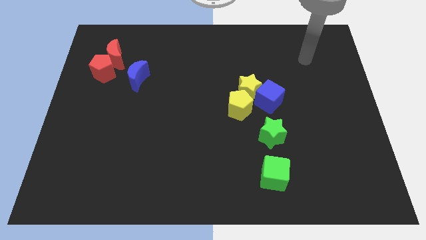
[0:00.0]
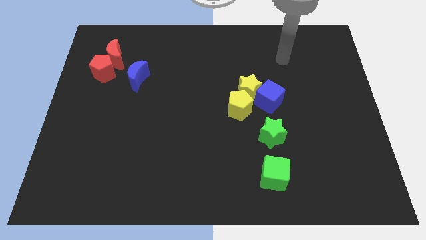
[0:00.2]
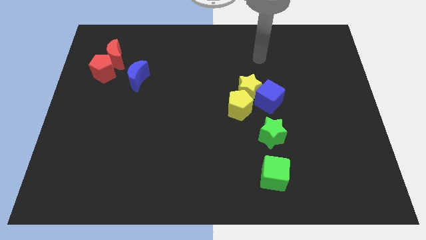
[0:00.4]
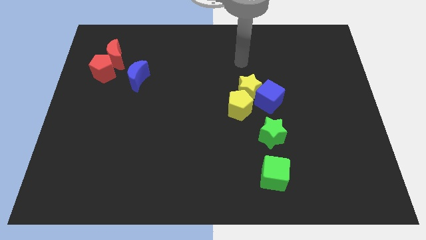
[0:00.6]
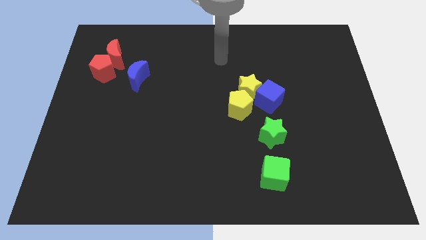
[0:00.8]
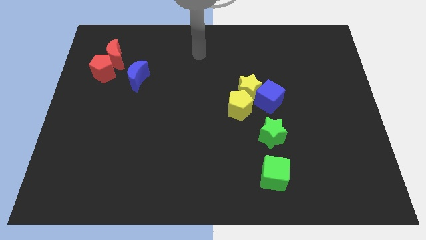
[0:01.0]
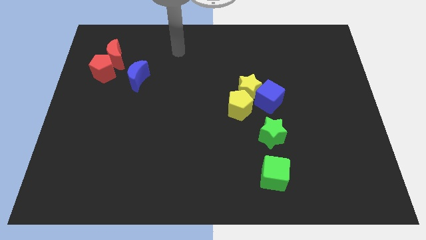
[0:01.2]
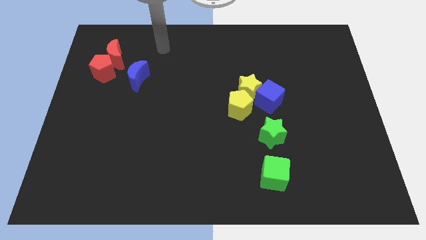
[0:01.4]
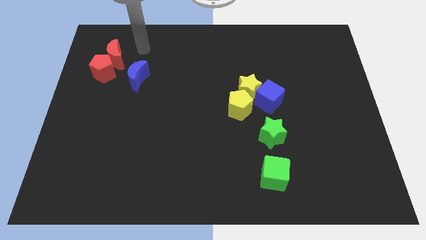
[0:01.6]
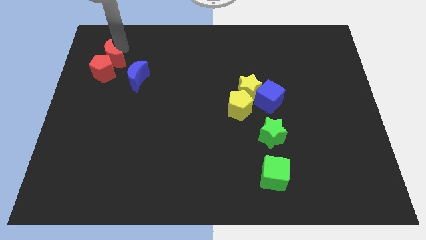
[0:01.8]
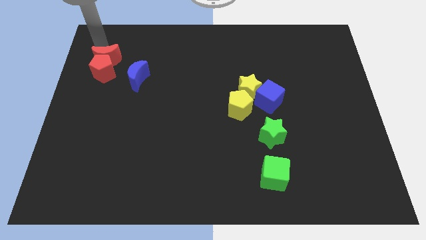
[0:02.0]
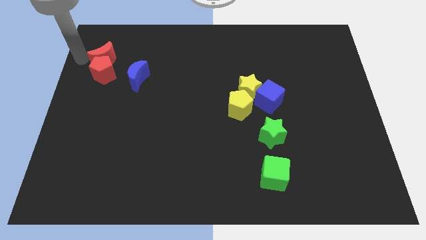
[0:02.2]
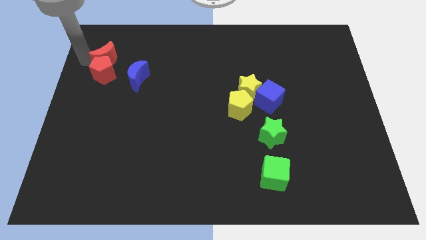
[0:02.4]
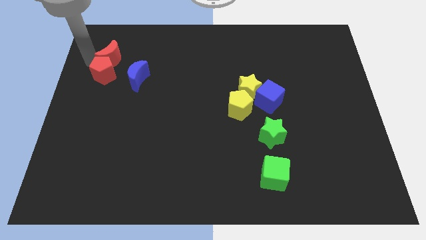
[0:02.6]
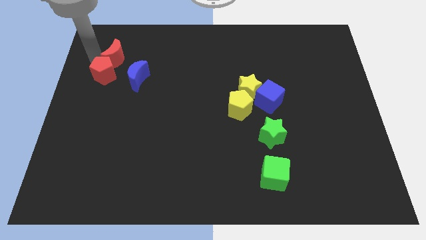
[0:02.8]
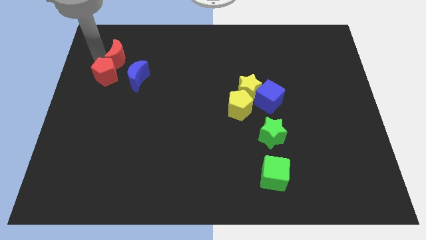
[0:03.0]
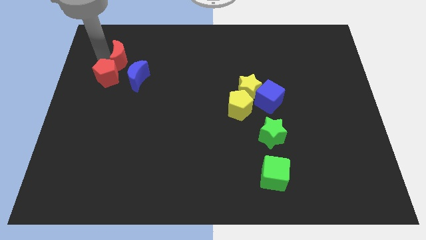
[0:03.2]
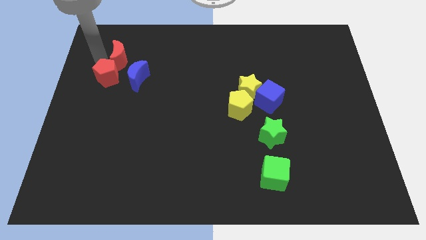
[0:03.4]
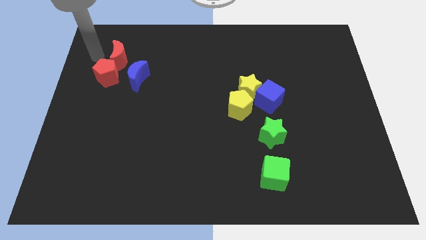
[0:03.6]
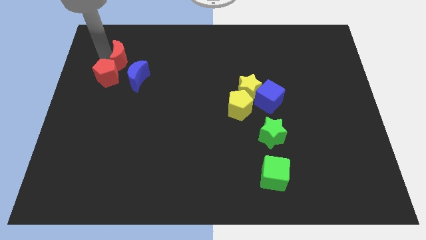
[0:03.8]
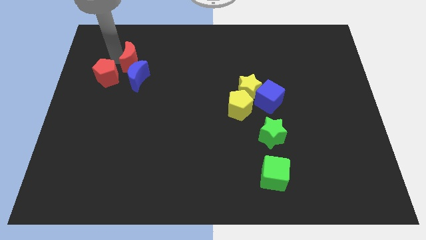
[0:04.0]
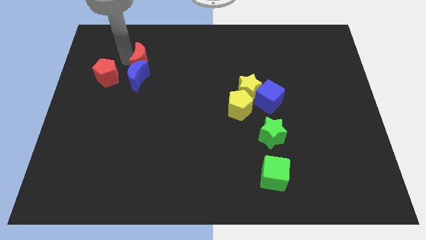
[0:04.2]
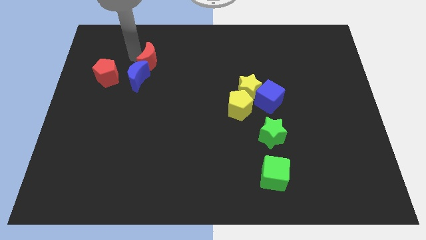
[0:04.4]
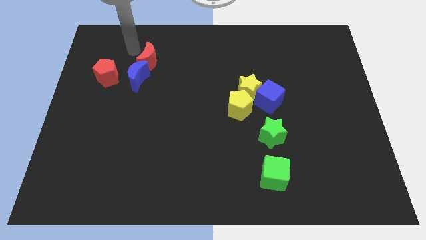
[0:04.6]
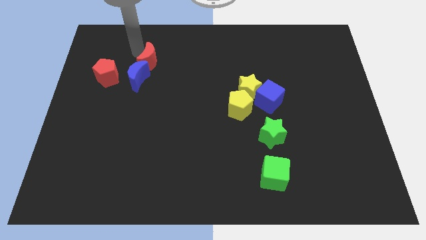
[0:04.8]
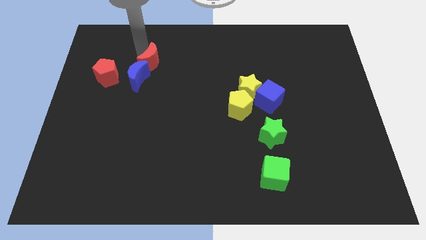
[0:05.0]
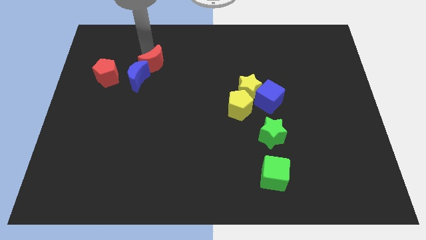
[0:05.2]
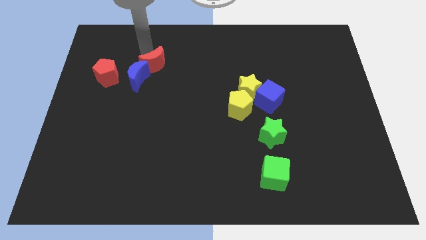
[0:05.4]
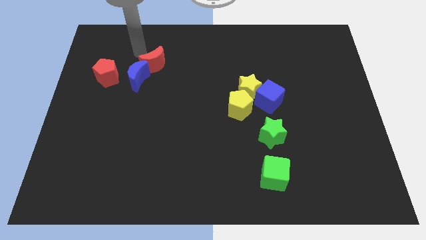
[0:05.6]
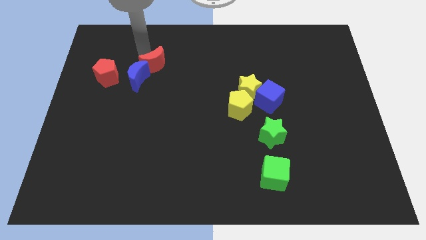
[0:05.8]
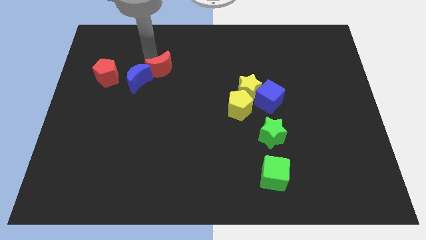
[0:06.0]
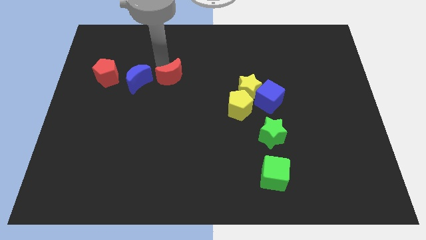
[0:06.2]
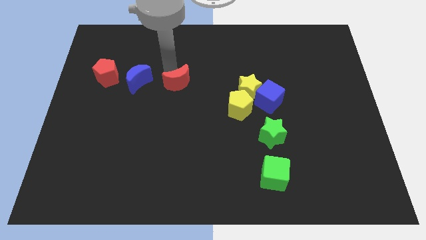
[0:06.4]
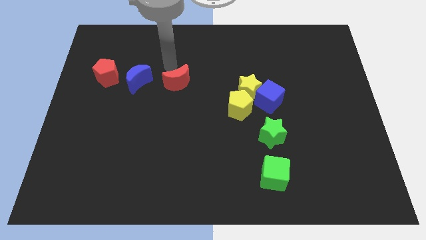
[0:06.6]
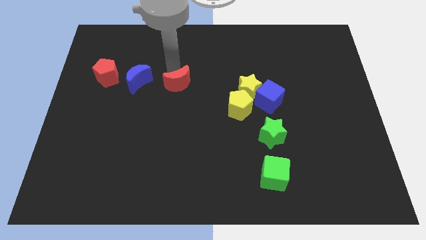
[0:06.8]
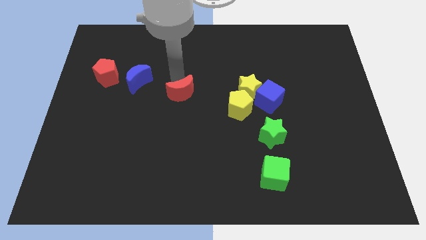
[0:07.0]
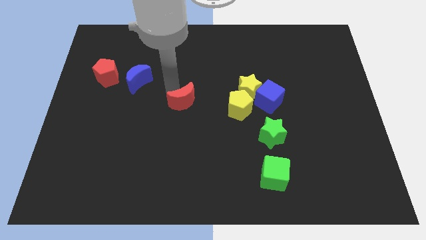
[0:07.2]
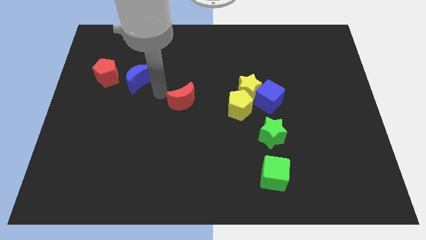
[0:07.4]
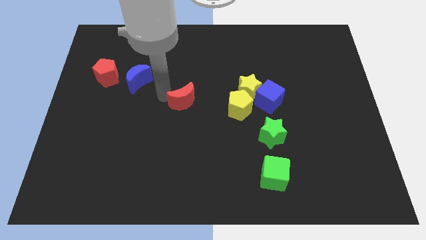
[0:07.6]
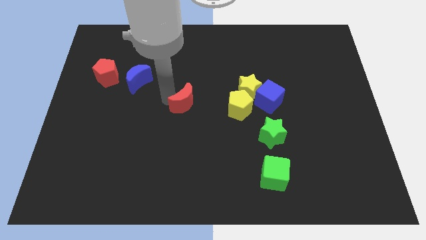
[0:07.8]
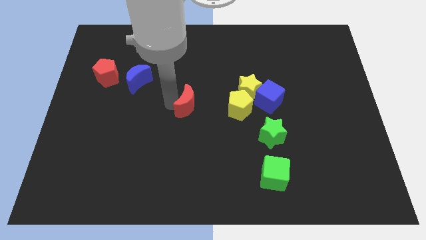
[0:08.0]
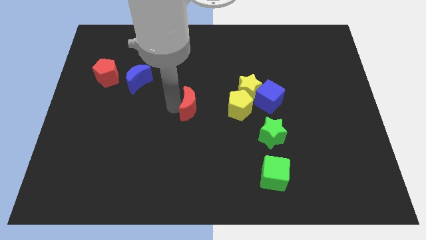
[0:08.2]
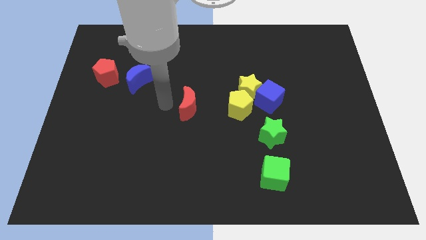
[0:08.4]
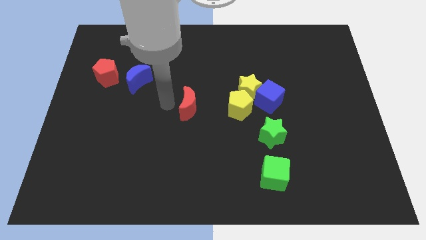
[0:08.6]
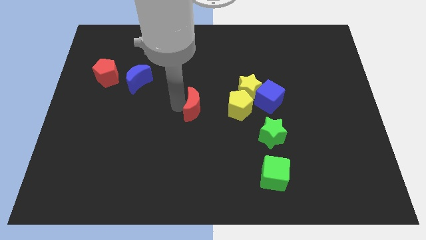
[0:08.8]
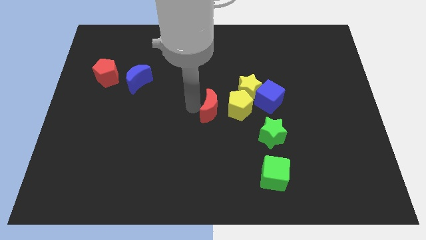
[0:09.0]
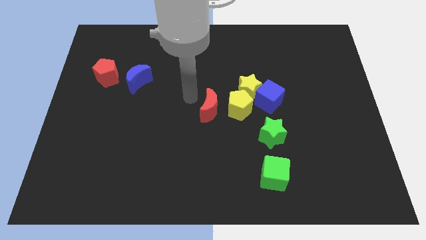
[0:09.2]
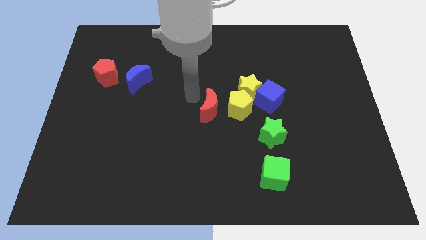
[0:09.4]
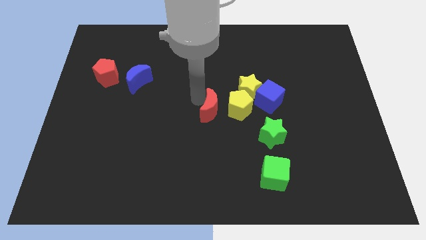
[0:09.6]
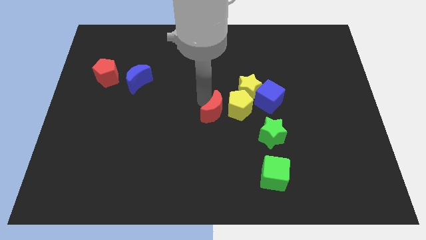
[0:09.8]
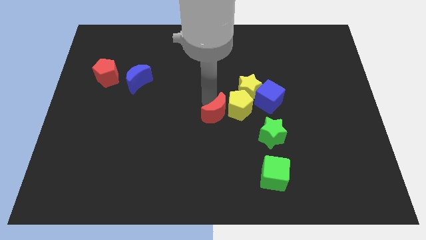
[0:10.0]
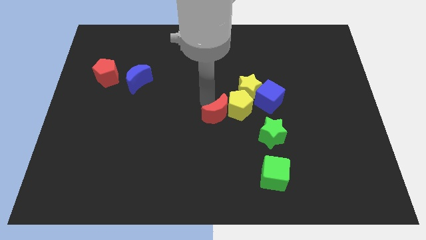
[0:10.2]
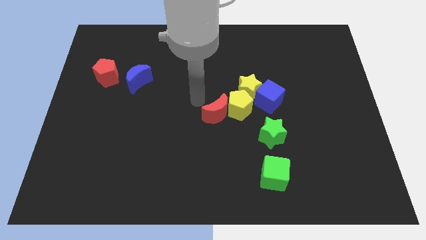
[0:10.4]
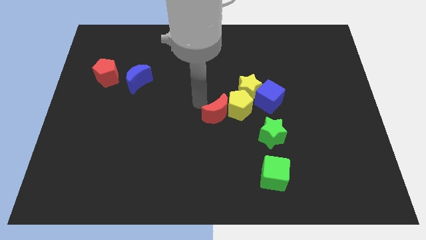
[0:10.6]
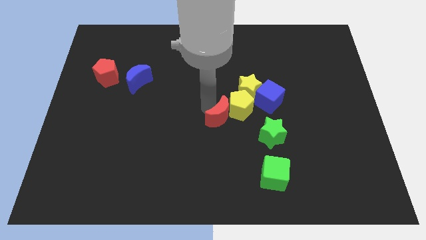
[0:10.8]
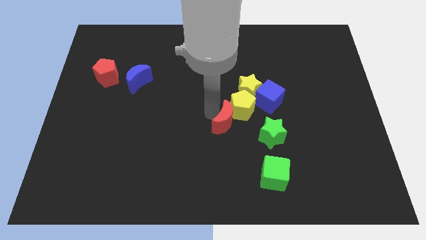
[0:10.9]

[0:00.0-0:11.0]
slide the red moon to the bottom left side of the blue cube

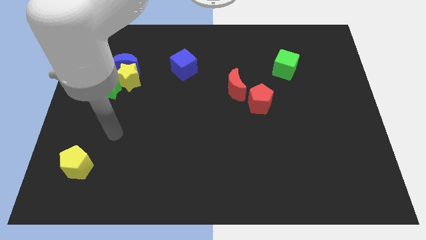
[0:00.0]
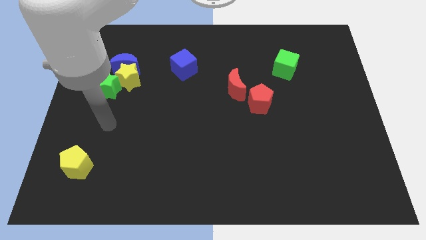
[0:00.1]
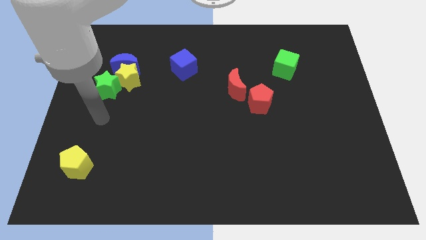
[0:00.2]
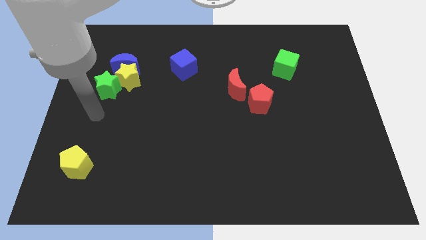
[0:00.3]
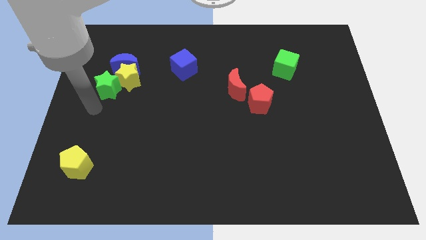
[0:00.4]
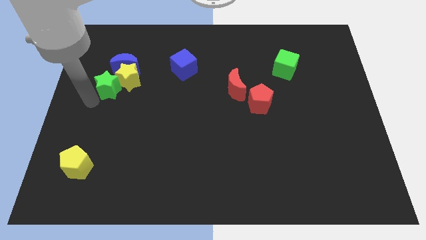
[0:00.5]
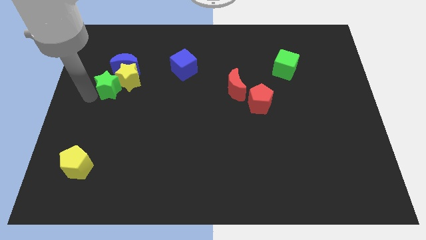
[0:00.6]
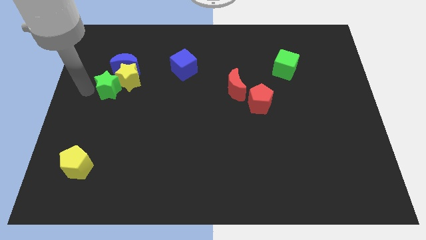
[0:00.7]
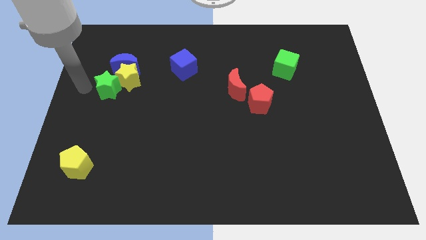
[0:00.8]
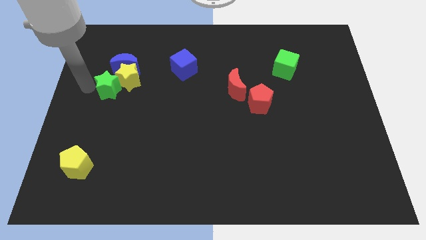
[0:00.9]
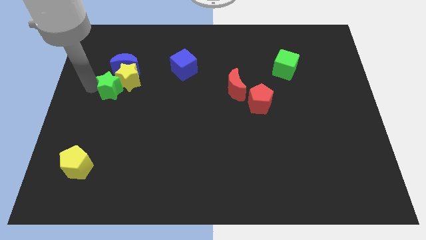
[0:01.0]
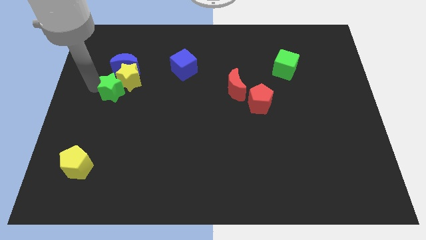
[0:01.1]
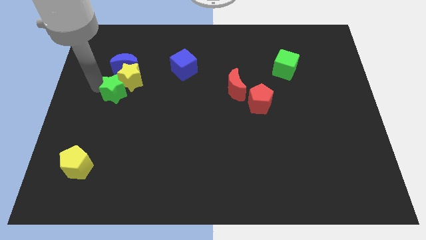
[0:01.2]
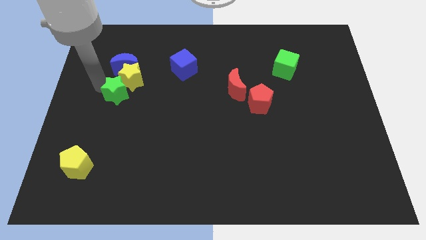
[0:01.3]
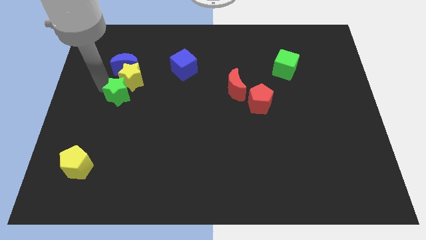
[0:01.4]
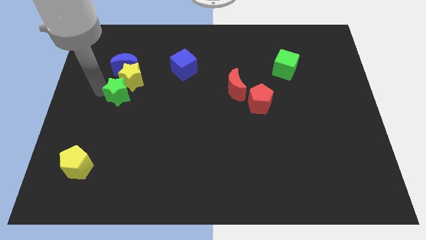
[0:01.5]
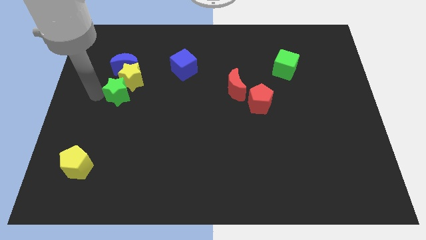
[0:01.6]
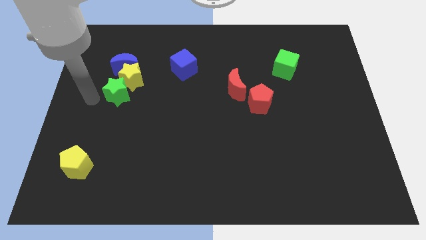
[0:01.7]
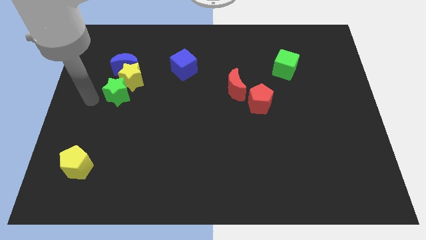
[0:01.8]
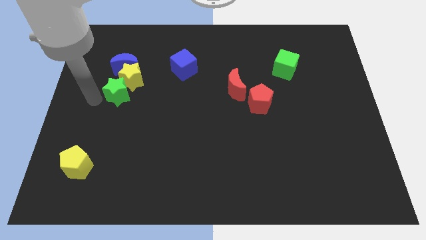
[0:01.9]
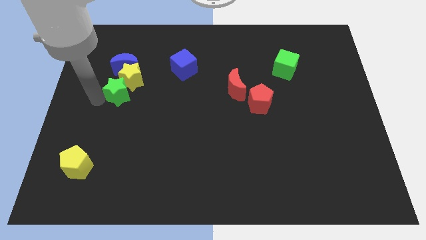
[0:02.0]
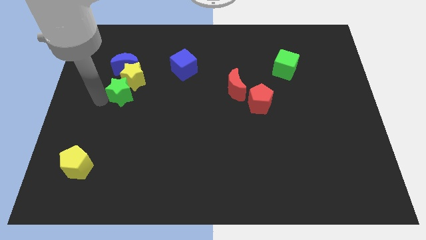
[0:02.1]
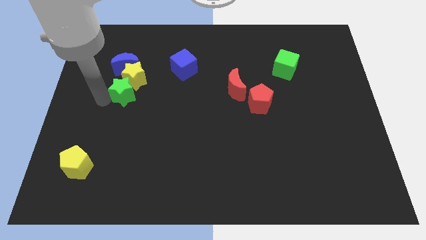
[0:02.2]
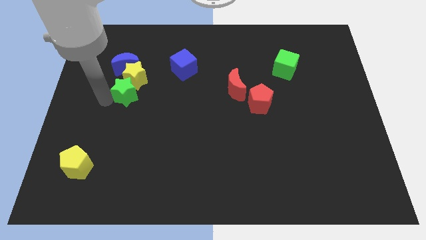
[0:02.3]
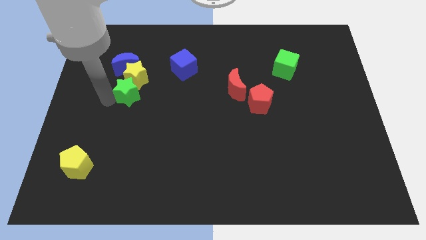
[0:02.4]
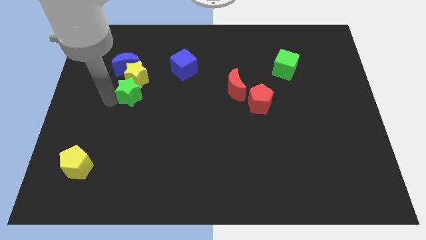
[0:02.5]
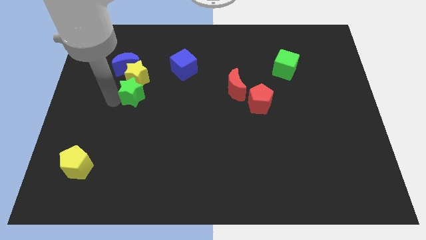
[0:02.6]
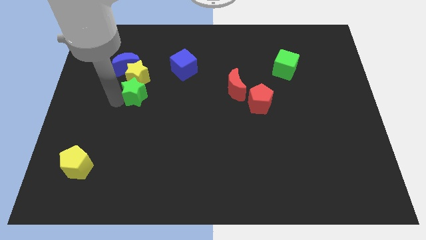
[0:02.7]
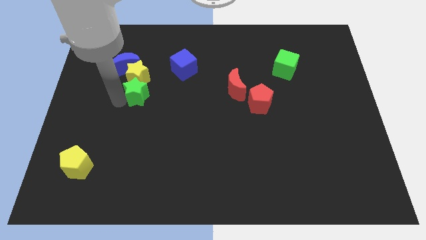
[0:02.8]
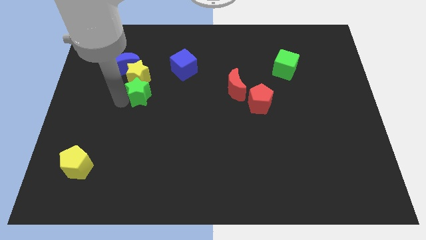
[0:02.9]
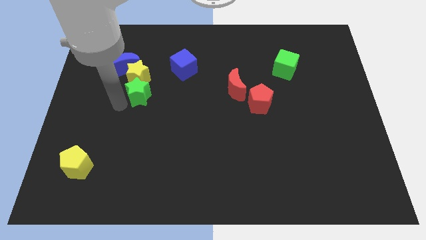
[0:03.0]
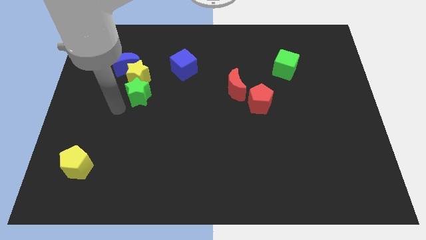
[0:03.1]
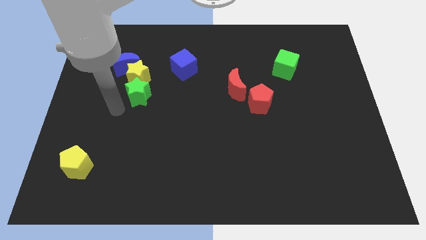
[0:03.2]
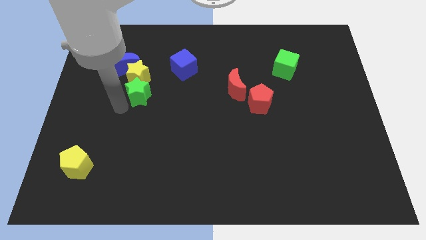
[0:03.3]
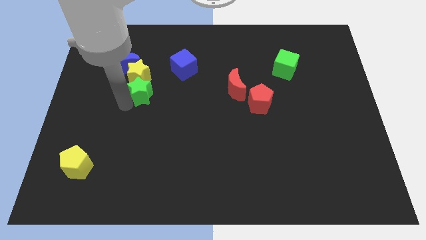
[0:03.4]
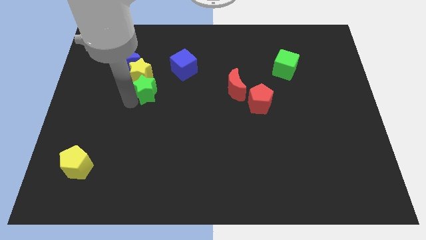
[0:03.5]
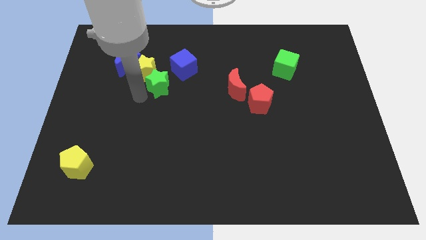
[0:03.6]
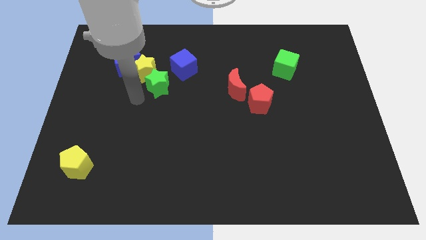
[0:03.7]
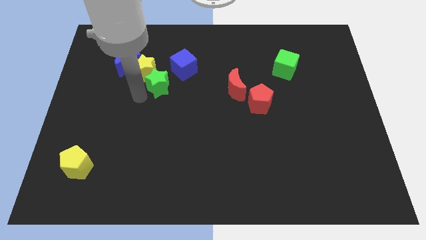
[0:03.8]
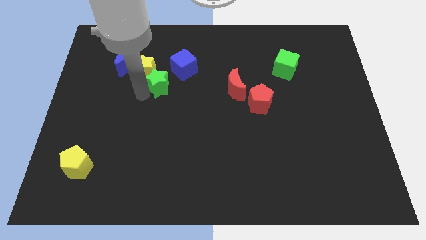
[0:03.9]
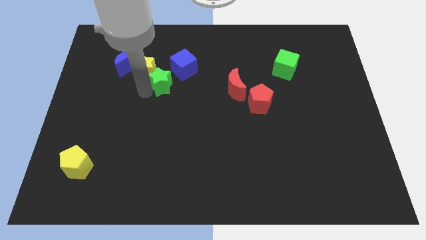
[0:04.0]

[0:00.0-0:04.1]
slide the green star to the right of the yellow star
